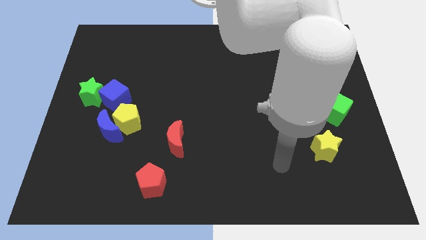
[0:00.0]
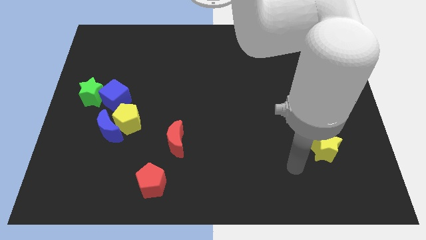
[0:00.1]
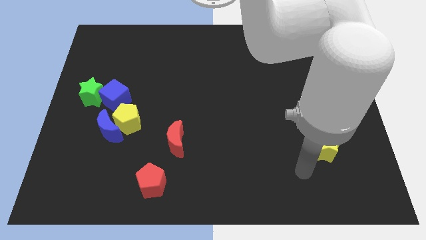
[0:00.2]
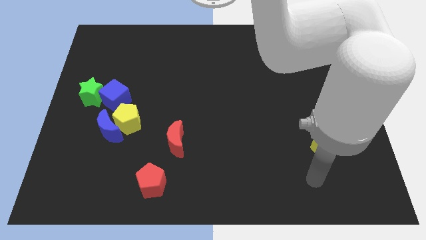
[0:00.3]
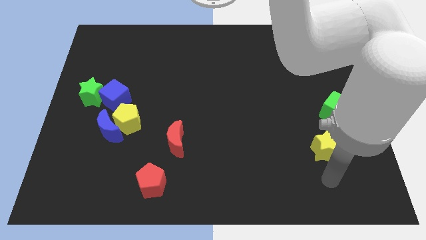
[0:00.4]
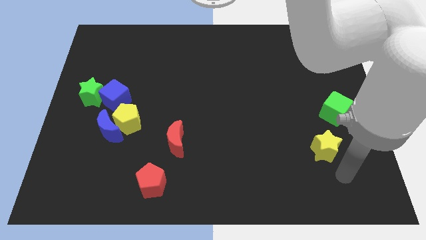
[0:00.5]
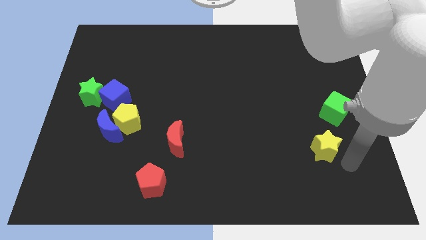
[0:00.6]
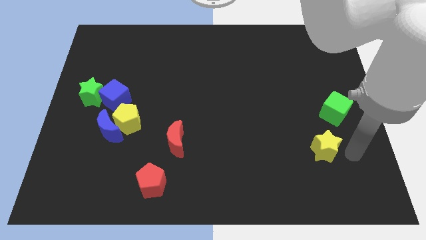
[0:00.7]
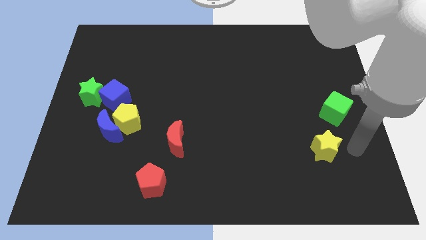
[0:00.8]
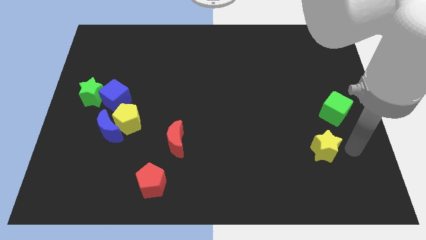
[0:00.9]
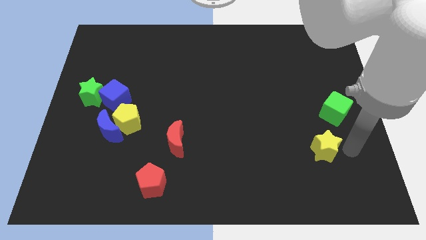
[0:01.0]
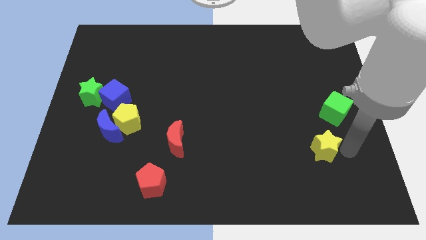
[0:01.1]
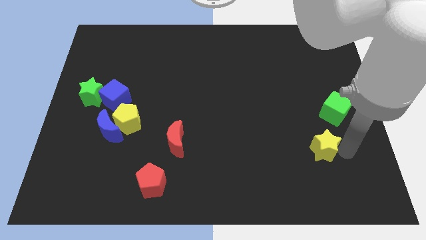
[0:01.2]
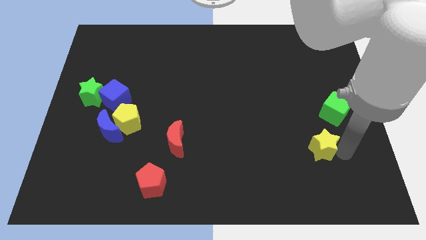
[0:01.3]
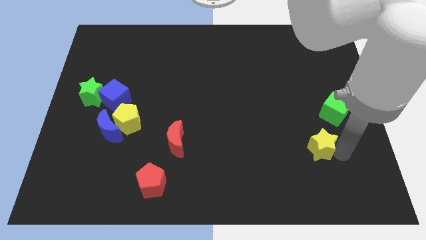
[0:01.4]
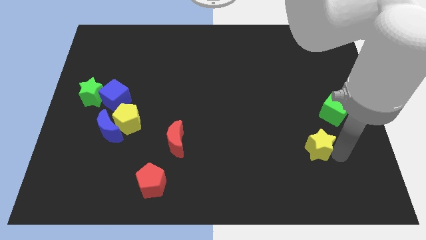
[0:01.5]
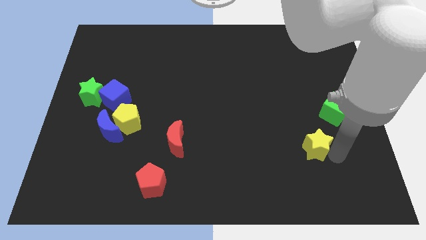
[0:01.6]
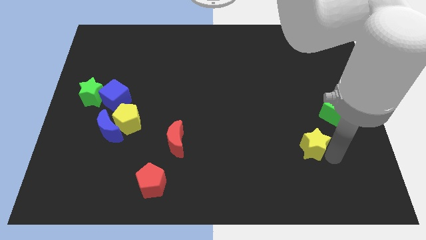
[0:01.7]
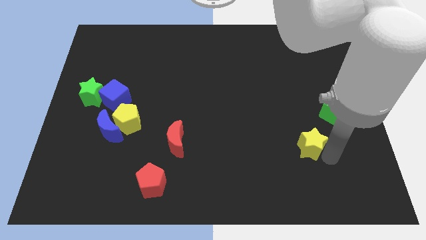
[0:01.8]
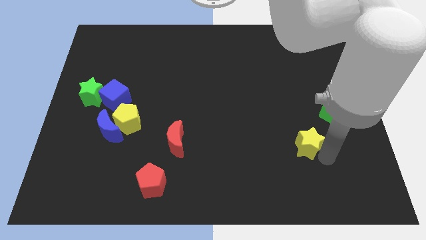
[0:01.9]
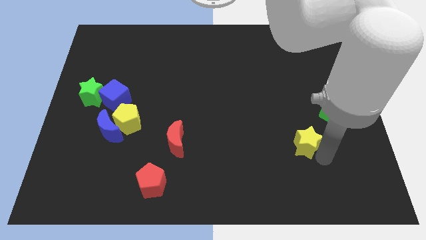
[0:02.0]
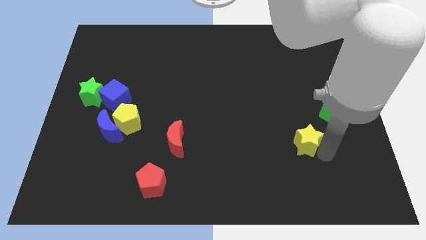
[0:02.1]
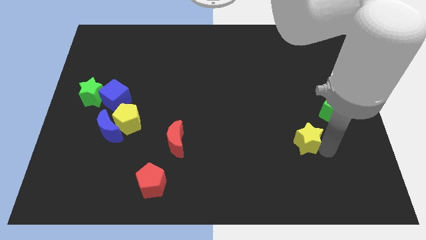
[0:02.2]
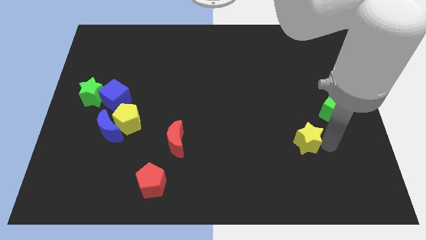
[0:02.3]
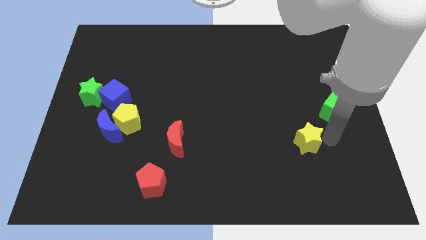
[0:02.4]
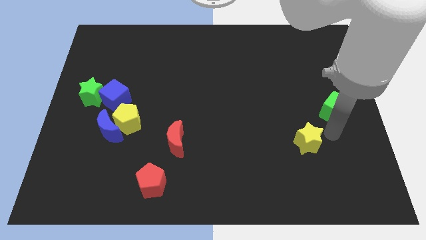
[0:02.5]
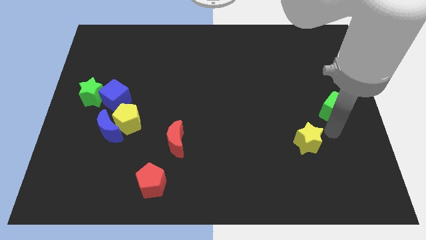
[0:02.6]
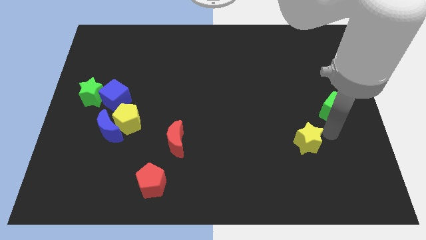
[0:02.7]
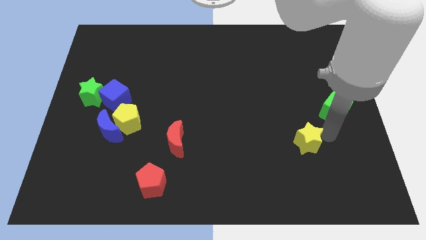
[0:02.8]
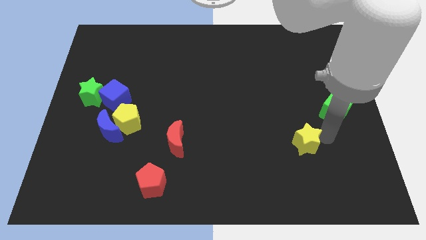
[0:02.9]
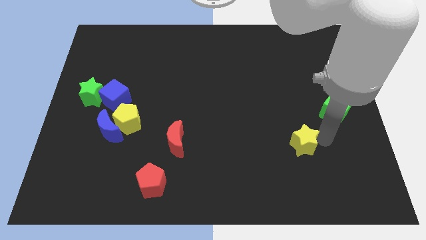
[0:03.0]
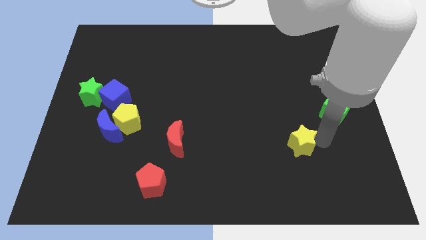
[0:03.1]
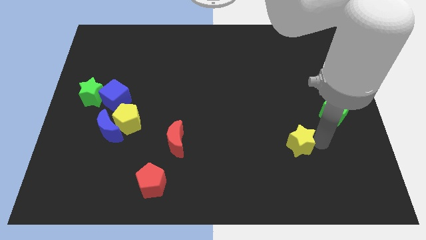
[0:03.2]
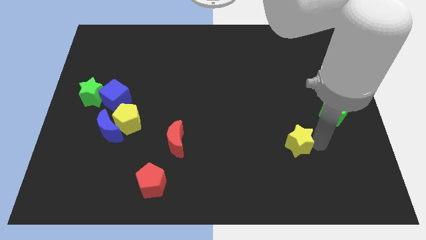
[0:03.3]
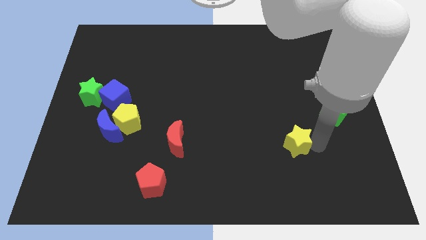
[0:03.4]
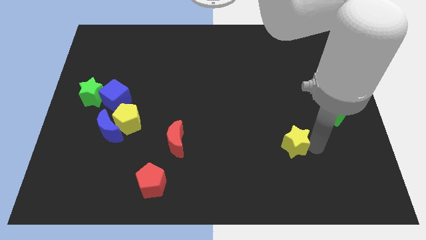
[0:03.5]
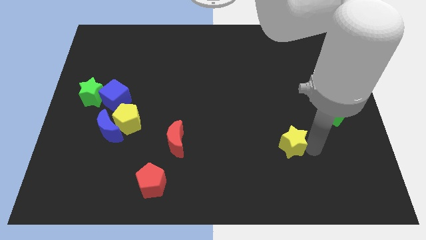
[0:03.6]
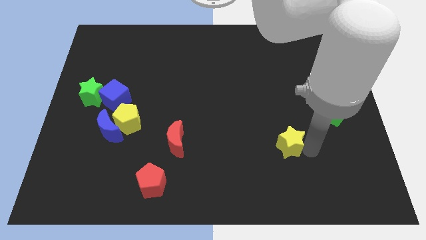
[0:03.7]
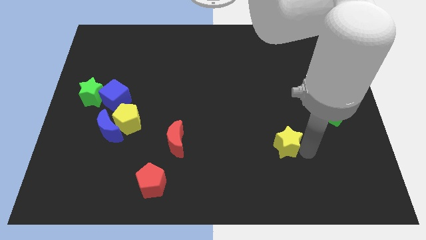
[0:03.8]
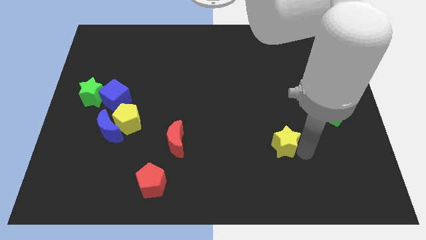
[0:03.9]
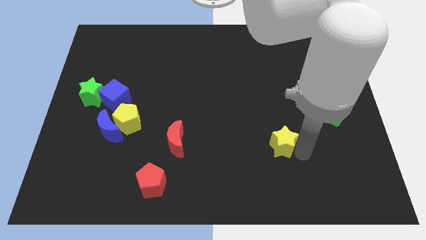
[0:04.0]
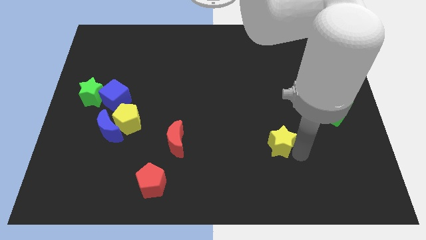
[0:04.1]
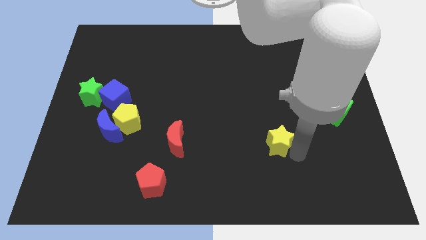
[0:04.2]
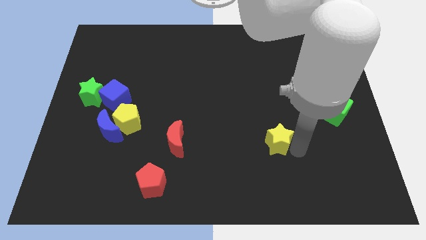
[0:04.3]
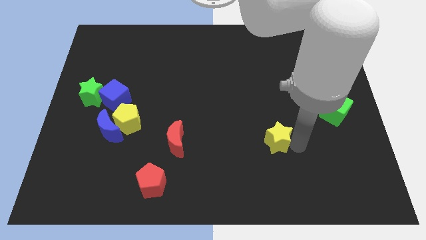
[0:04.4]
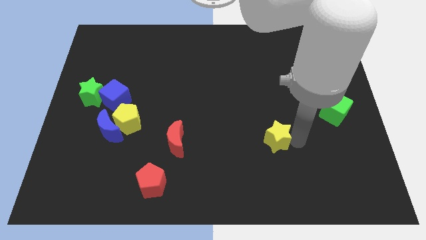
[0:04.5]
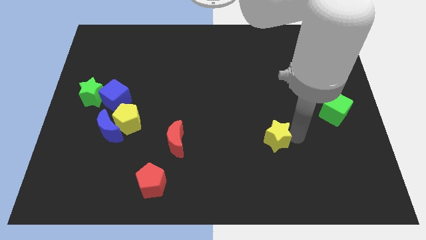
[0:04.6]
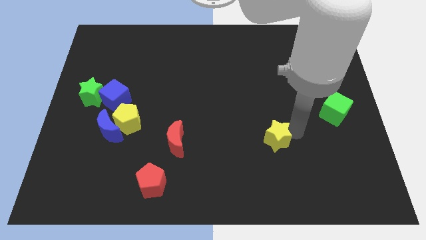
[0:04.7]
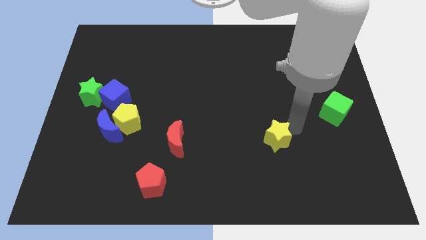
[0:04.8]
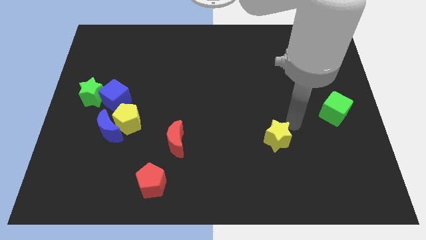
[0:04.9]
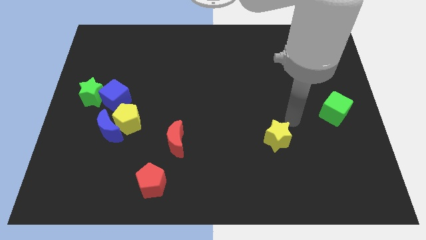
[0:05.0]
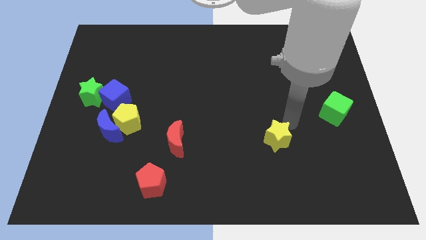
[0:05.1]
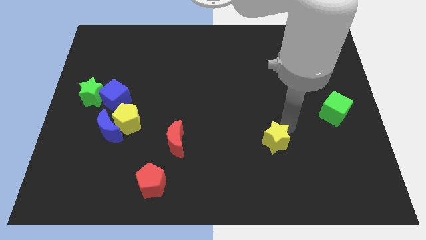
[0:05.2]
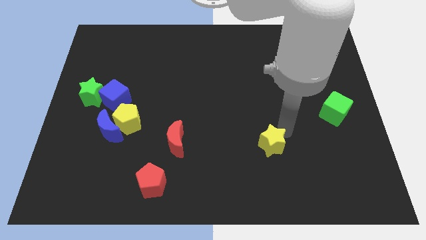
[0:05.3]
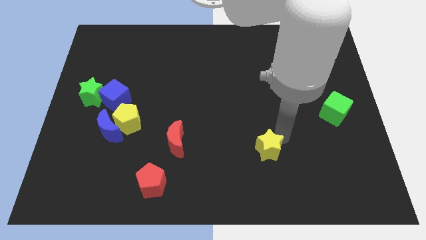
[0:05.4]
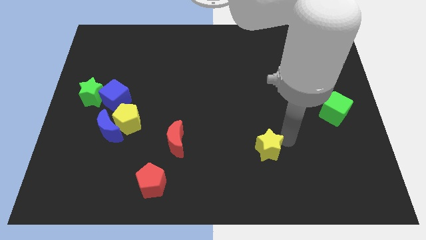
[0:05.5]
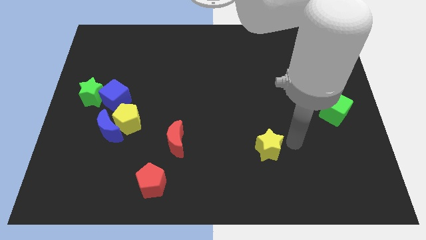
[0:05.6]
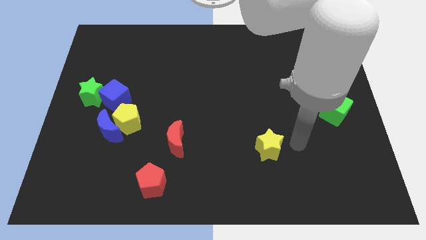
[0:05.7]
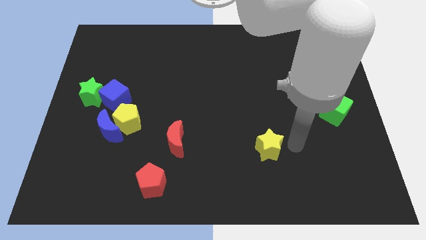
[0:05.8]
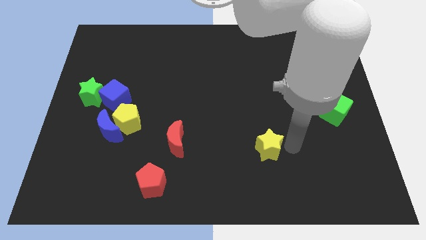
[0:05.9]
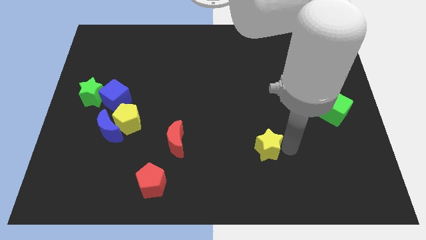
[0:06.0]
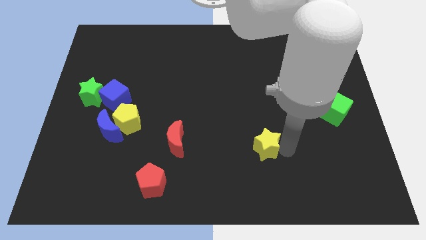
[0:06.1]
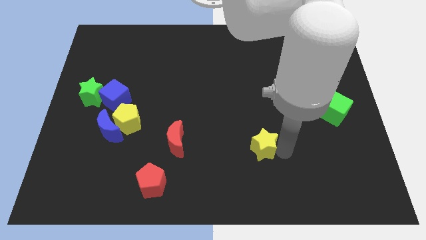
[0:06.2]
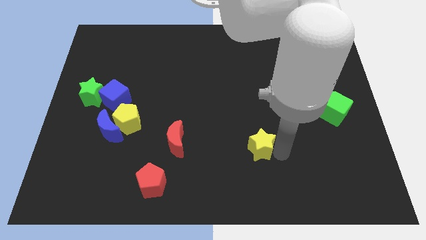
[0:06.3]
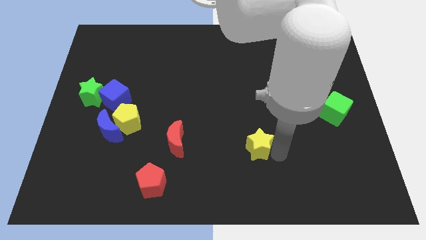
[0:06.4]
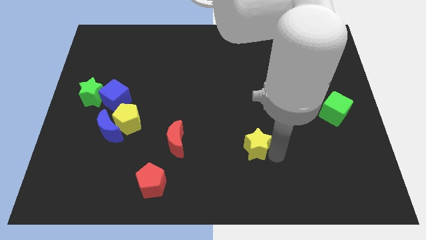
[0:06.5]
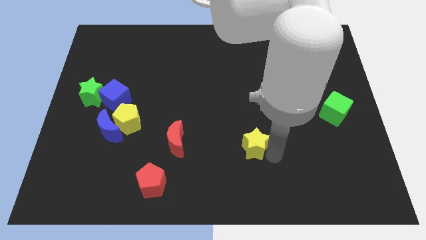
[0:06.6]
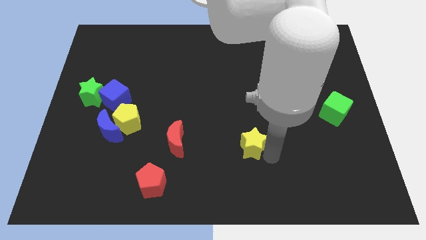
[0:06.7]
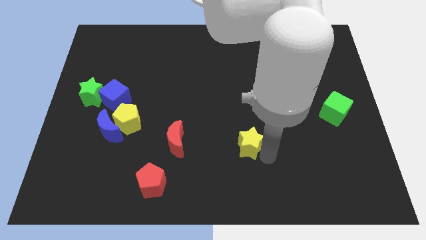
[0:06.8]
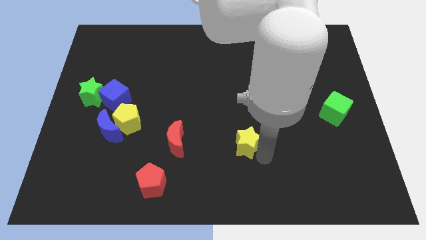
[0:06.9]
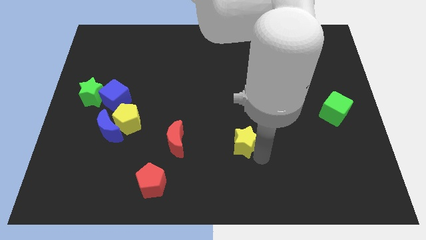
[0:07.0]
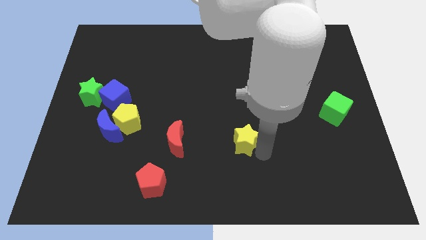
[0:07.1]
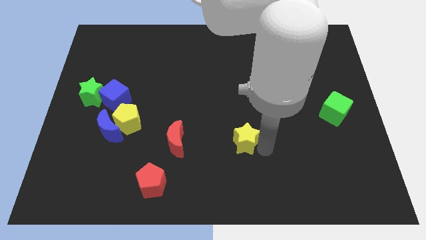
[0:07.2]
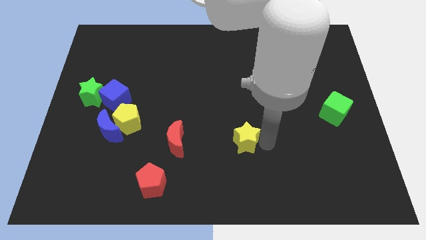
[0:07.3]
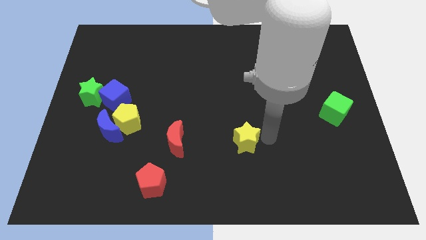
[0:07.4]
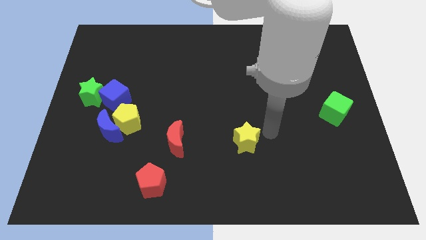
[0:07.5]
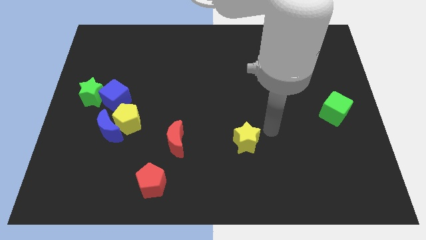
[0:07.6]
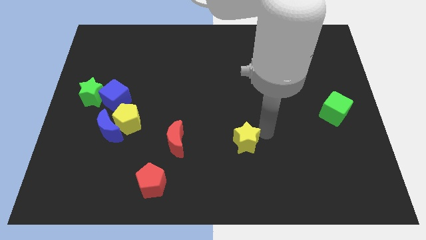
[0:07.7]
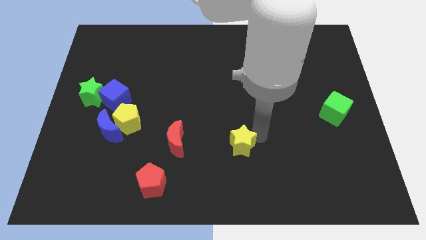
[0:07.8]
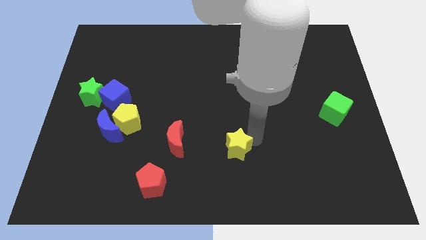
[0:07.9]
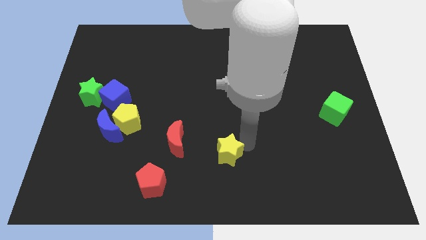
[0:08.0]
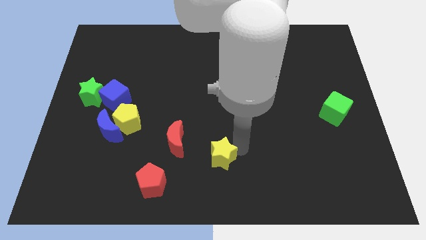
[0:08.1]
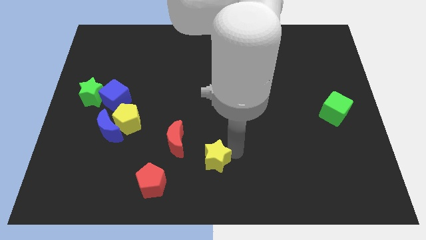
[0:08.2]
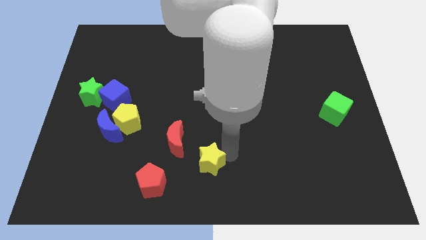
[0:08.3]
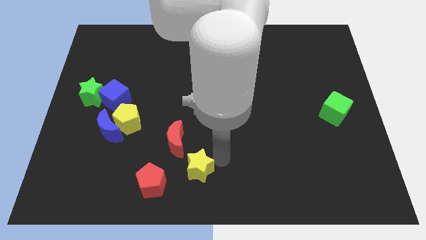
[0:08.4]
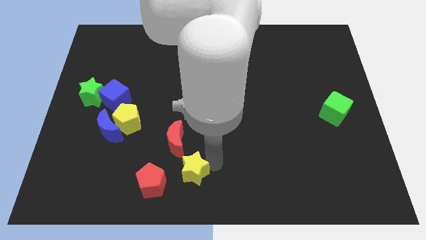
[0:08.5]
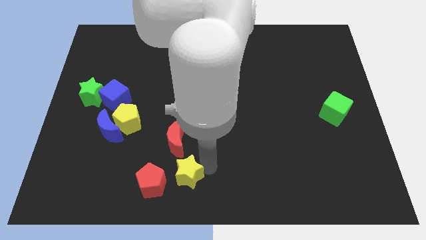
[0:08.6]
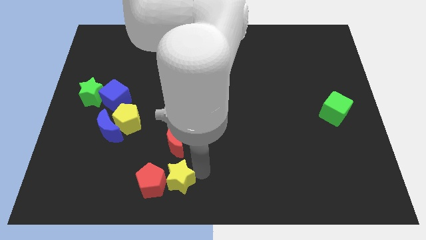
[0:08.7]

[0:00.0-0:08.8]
put the yellow star to the red pentagon
